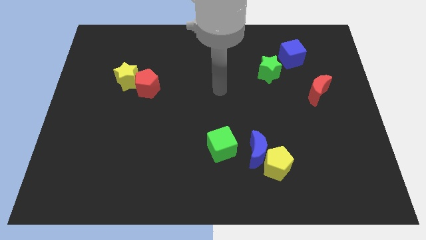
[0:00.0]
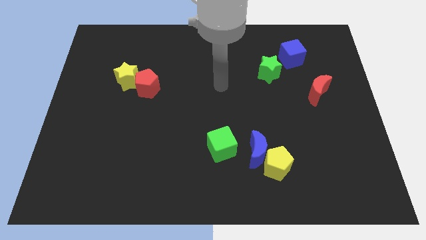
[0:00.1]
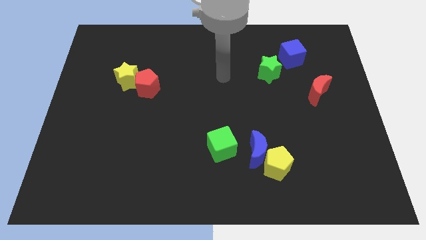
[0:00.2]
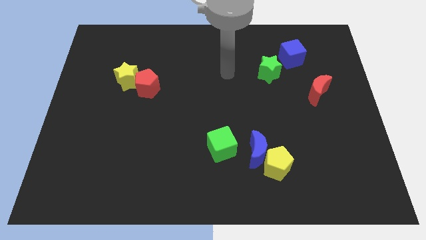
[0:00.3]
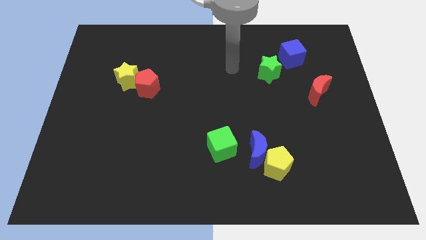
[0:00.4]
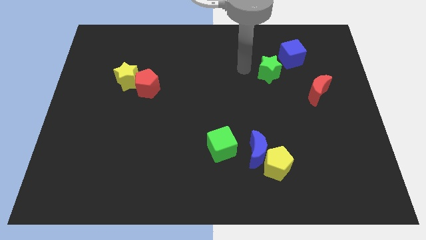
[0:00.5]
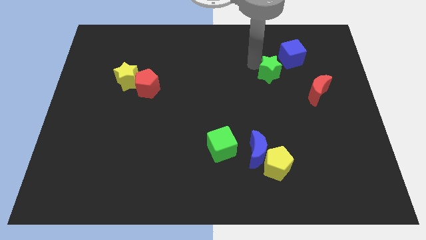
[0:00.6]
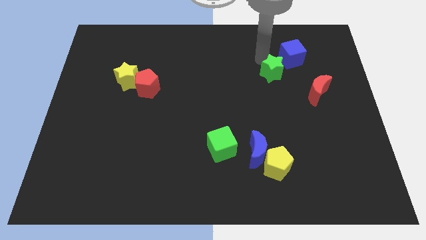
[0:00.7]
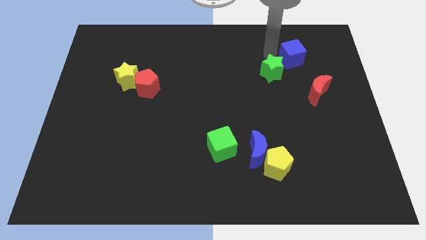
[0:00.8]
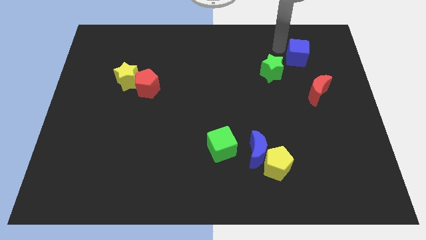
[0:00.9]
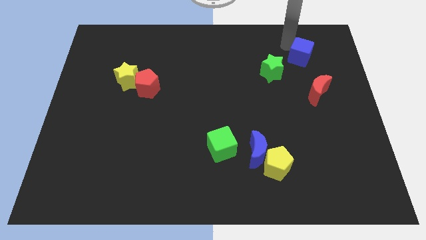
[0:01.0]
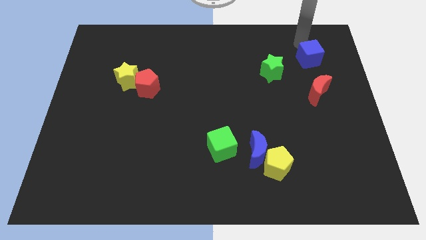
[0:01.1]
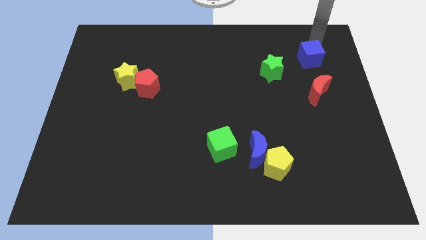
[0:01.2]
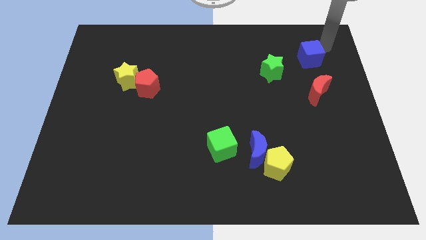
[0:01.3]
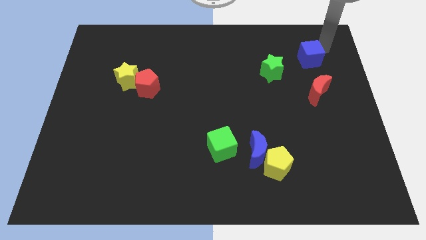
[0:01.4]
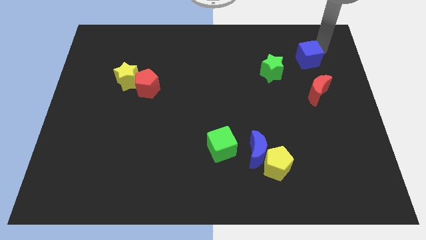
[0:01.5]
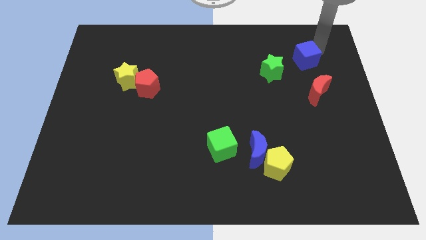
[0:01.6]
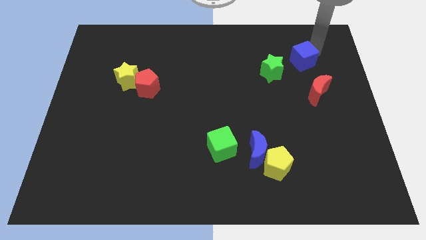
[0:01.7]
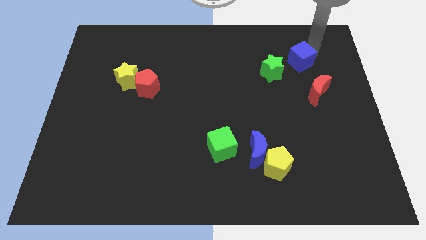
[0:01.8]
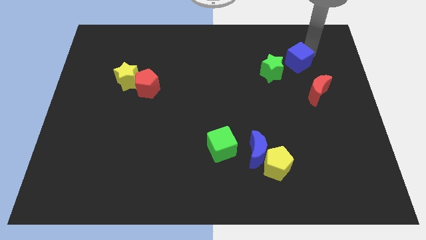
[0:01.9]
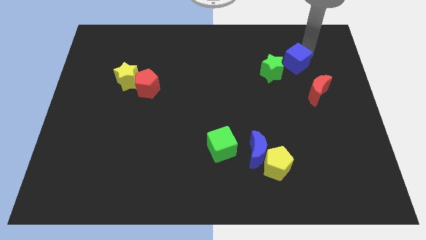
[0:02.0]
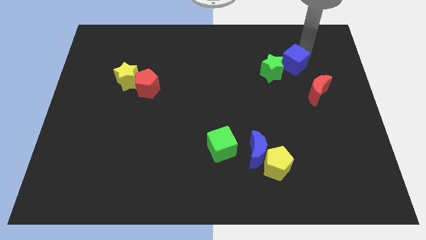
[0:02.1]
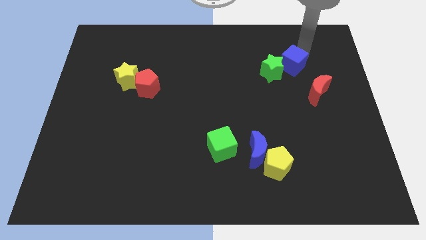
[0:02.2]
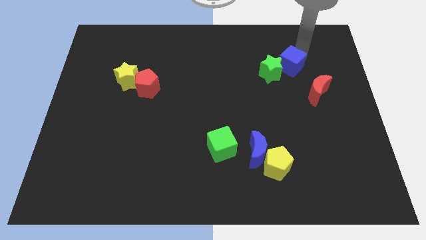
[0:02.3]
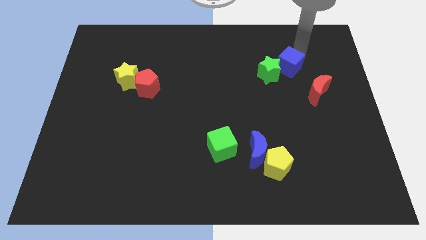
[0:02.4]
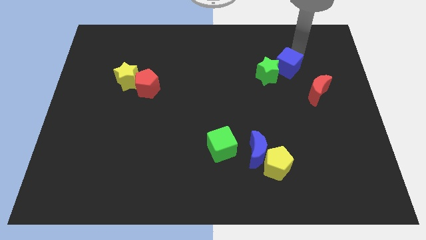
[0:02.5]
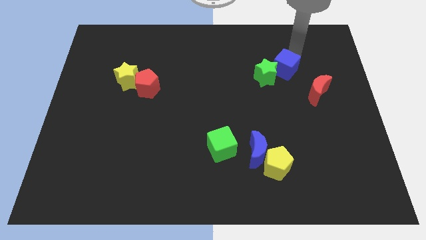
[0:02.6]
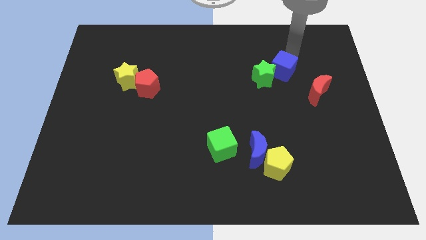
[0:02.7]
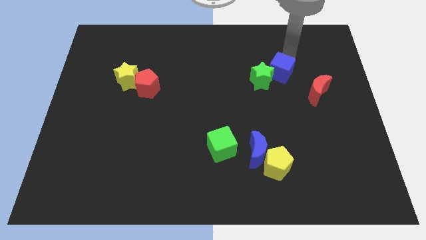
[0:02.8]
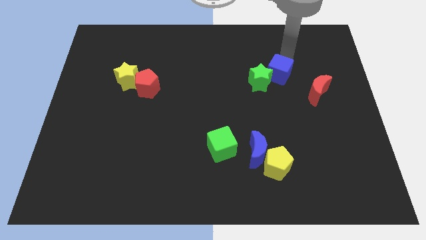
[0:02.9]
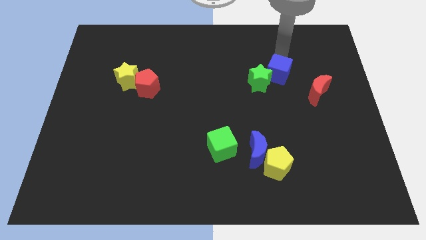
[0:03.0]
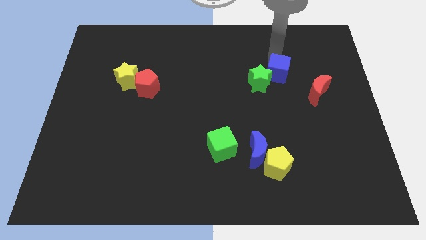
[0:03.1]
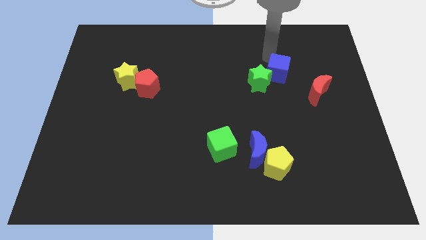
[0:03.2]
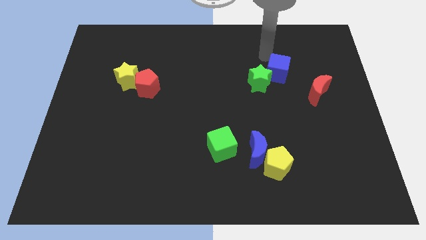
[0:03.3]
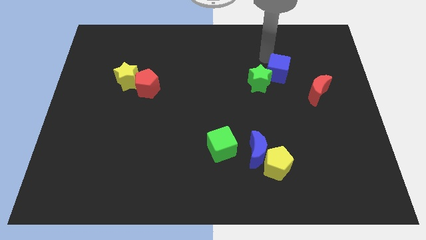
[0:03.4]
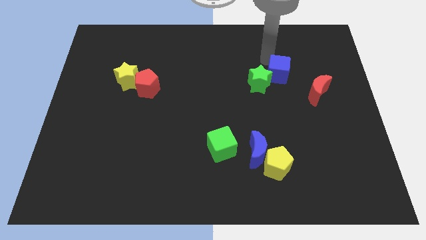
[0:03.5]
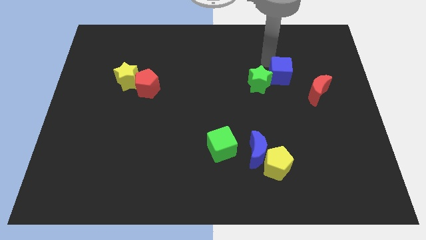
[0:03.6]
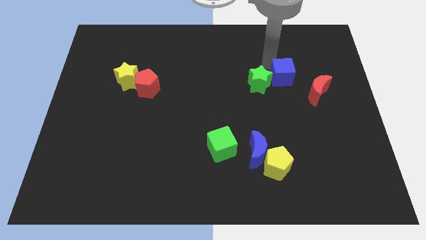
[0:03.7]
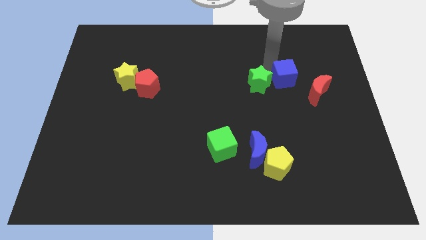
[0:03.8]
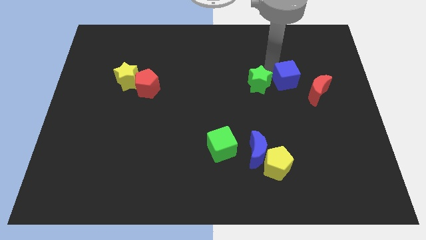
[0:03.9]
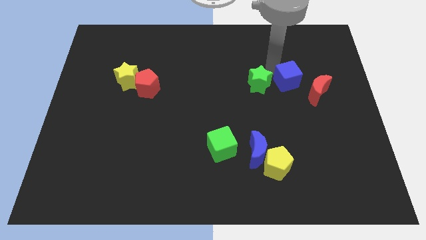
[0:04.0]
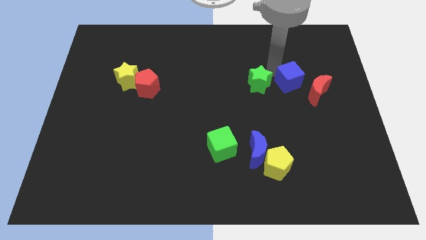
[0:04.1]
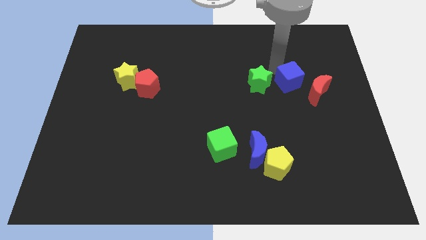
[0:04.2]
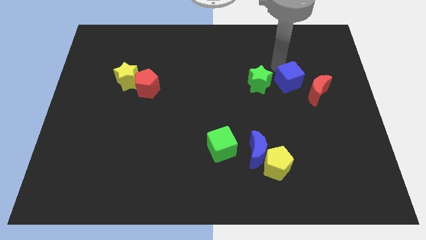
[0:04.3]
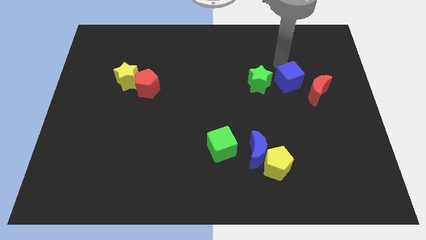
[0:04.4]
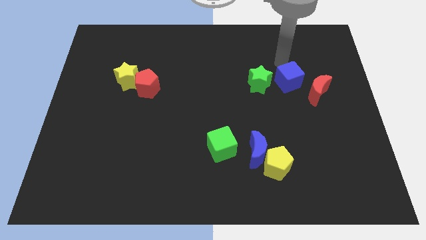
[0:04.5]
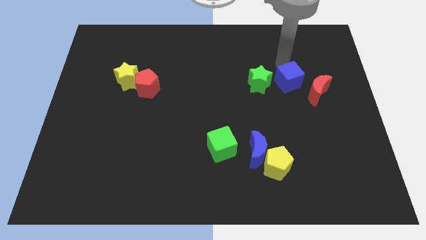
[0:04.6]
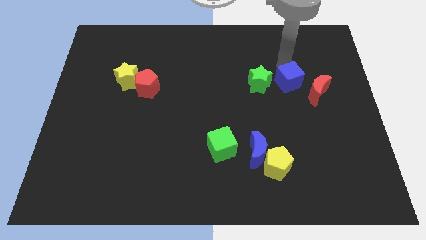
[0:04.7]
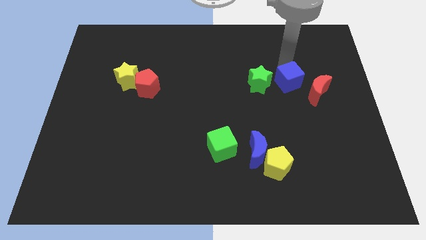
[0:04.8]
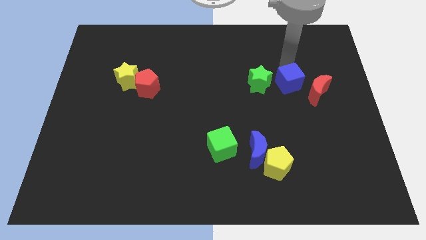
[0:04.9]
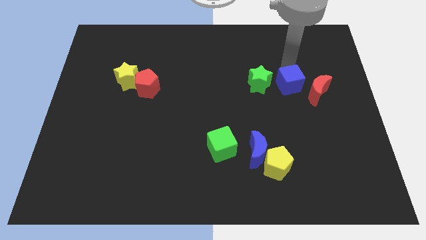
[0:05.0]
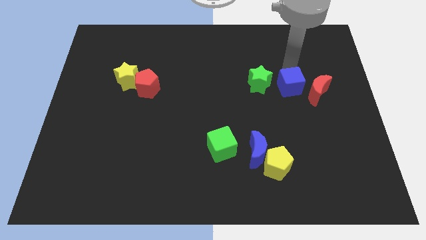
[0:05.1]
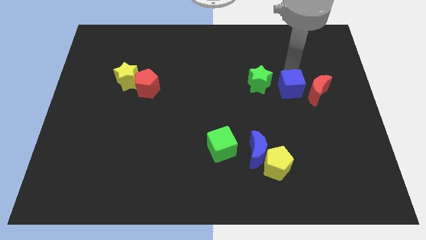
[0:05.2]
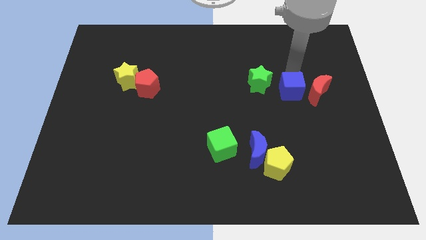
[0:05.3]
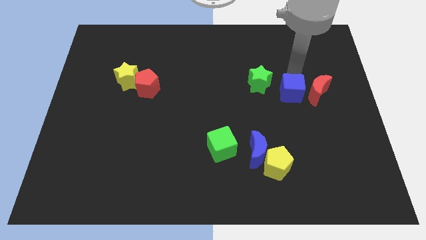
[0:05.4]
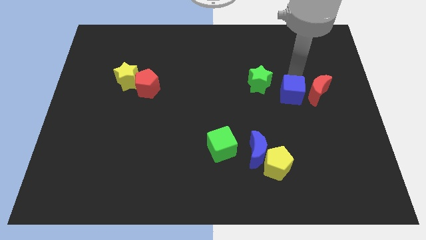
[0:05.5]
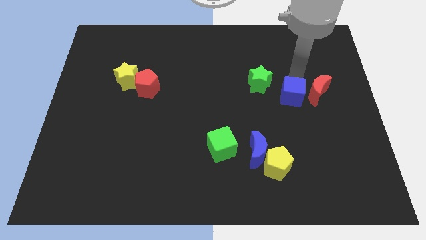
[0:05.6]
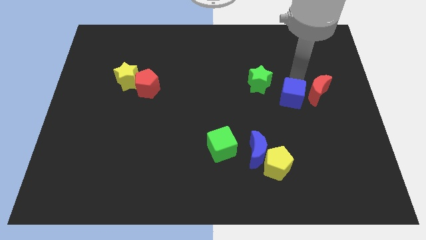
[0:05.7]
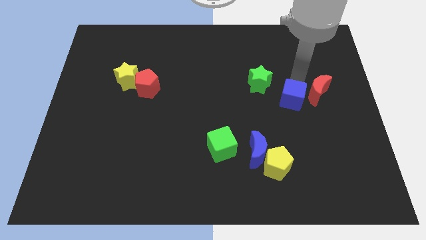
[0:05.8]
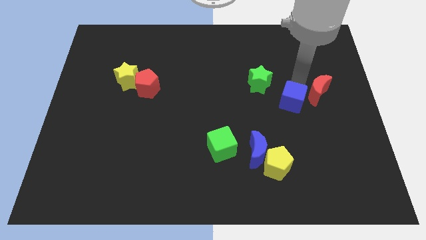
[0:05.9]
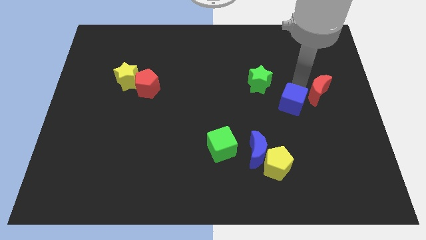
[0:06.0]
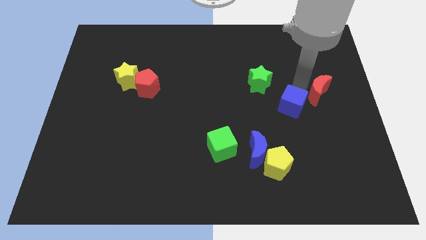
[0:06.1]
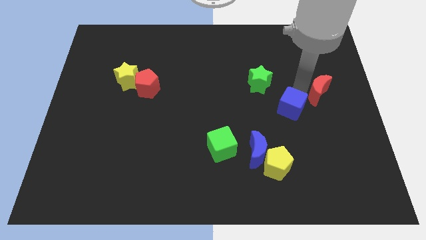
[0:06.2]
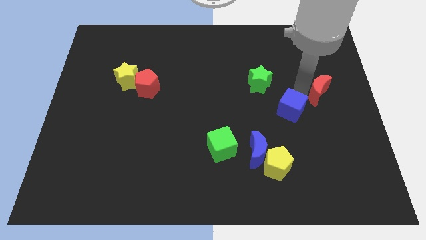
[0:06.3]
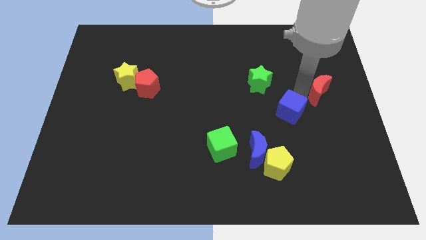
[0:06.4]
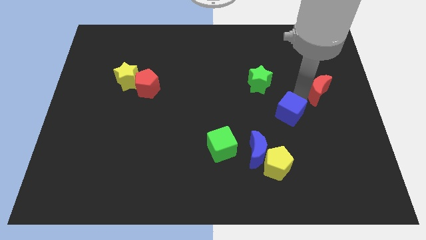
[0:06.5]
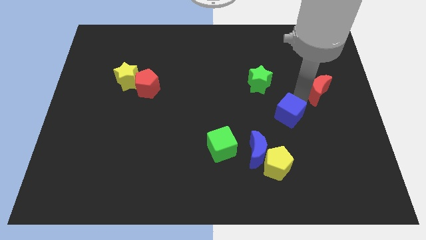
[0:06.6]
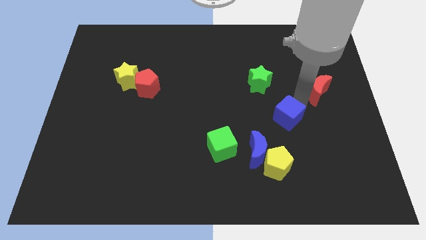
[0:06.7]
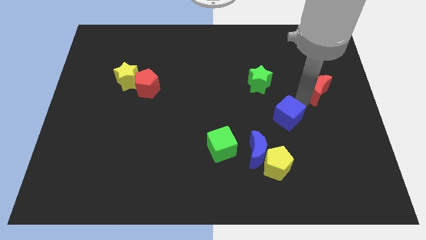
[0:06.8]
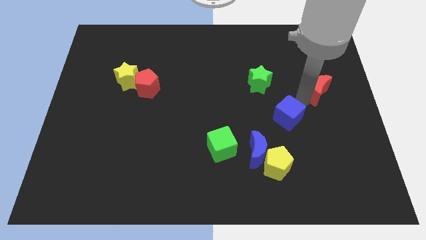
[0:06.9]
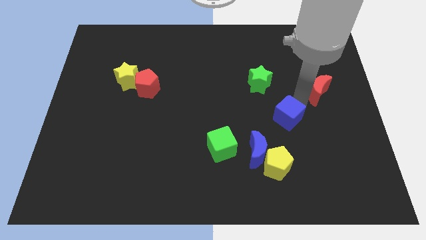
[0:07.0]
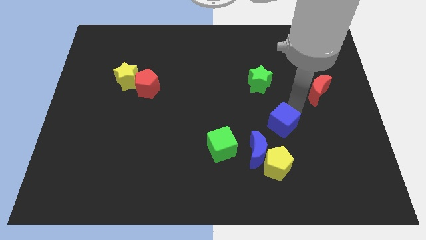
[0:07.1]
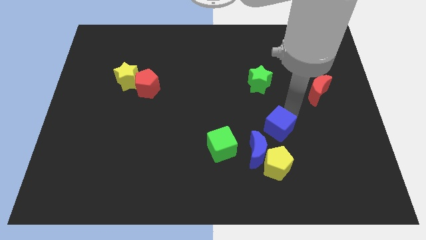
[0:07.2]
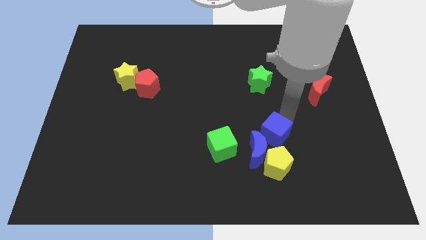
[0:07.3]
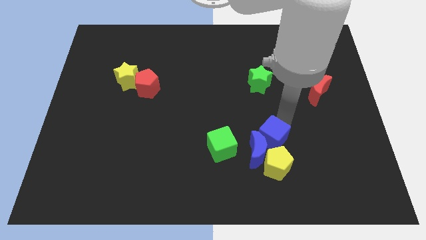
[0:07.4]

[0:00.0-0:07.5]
slide the blue cube to the blue moon
